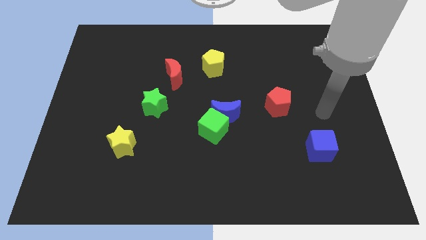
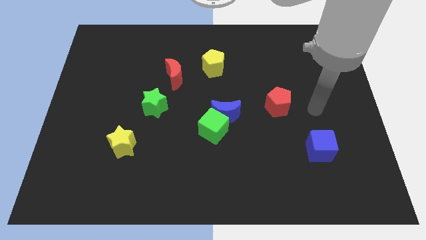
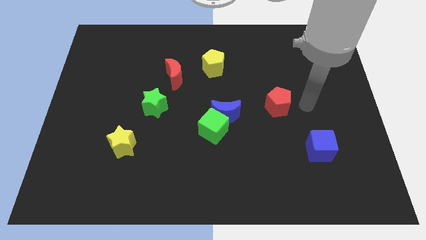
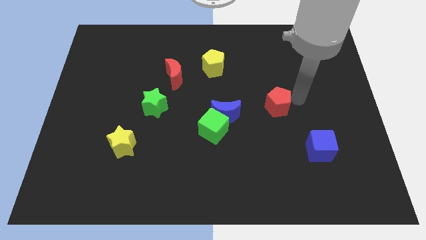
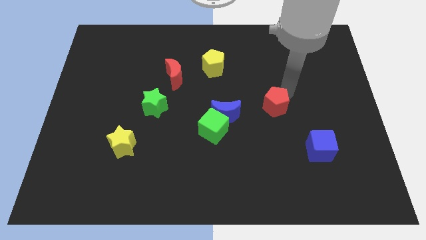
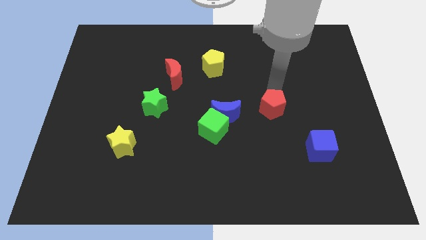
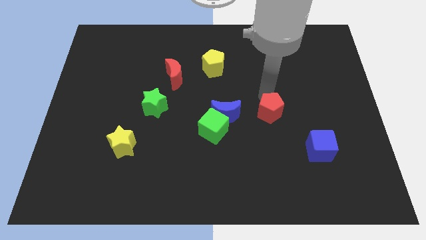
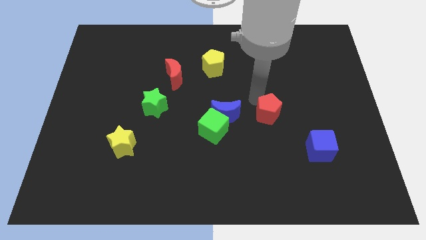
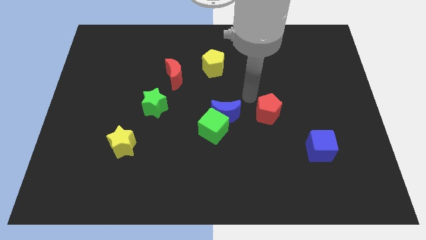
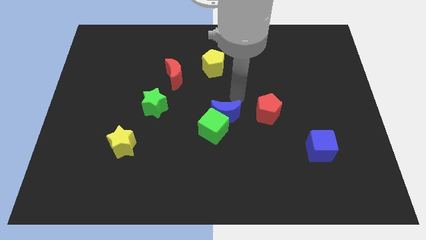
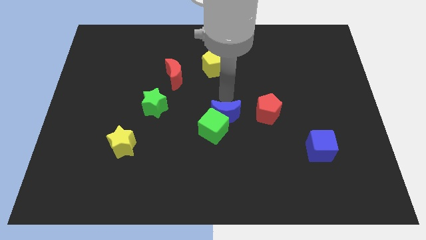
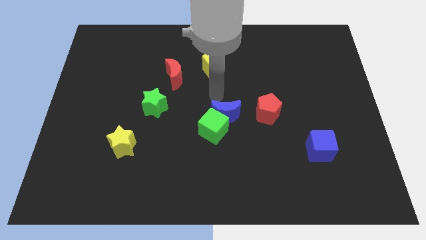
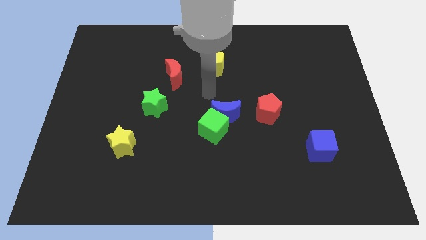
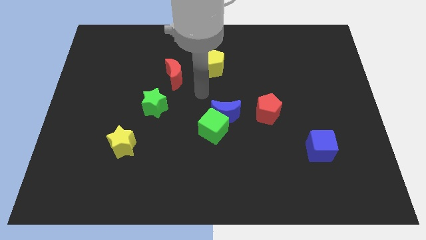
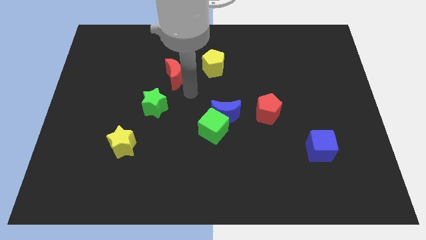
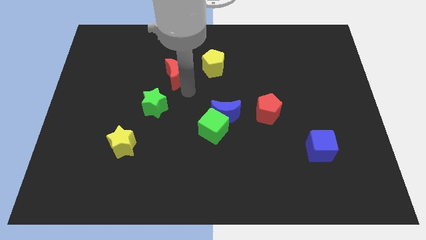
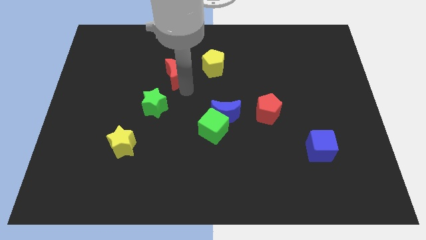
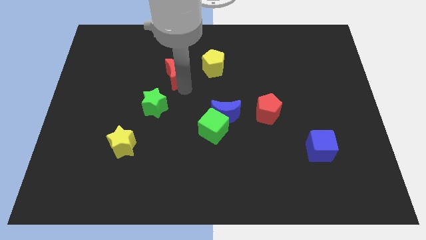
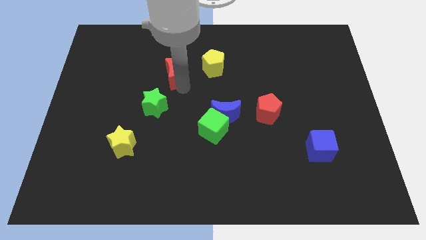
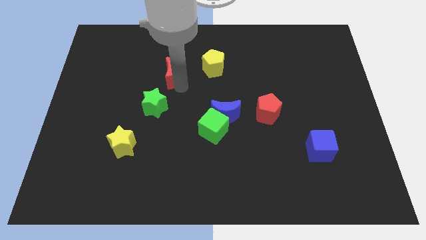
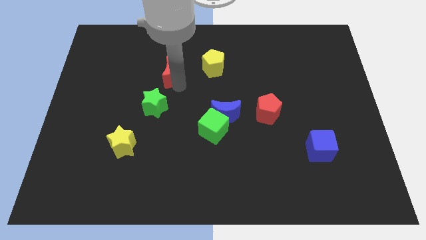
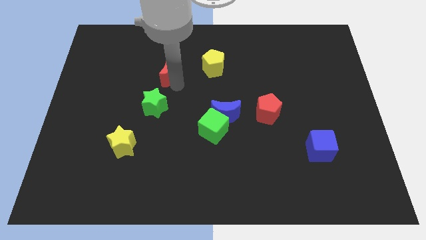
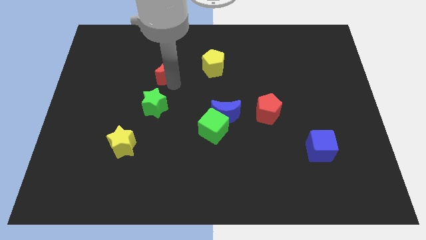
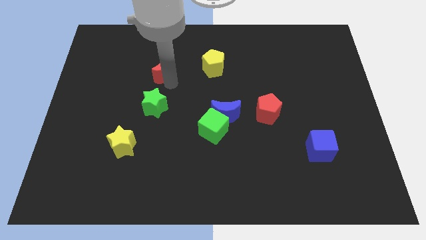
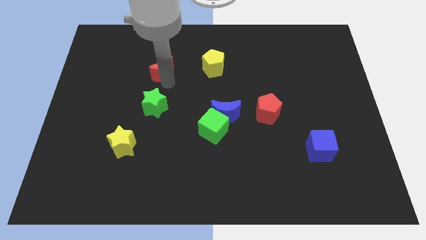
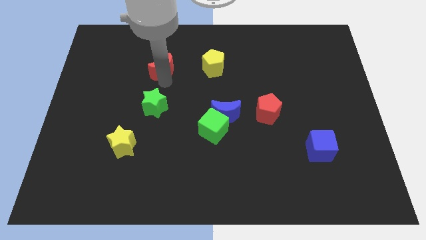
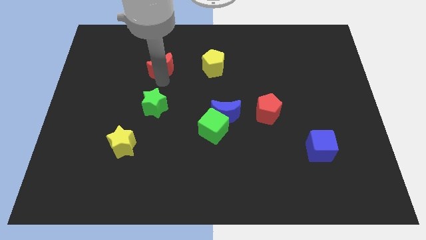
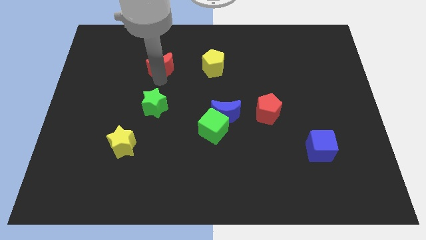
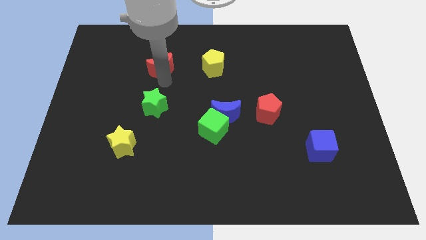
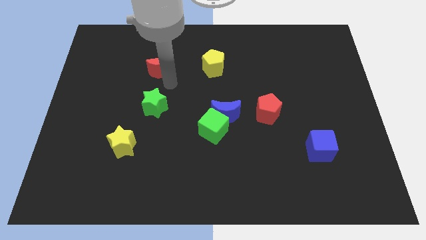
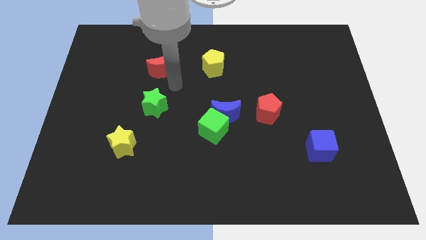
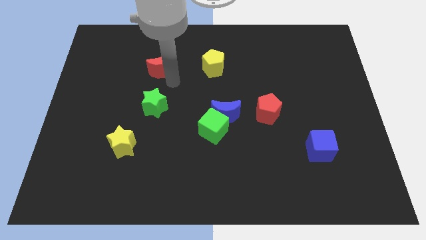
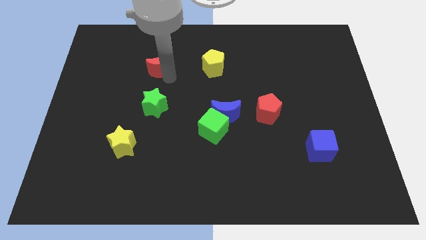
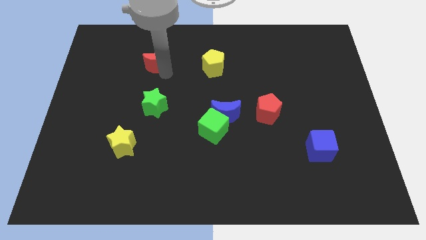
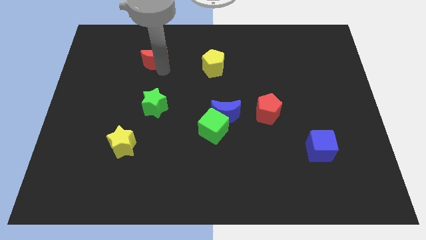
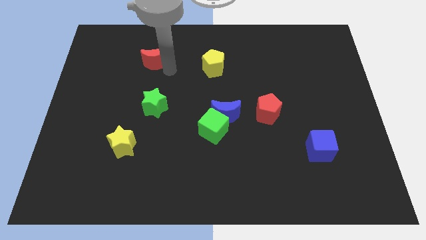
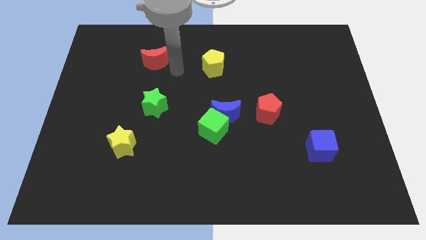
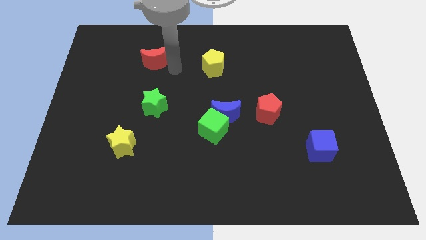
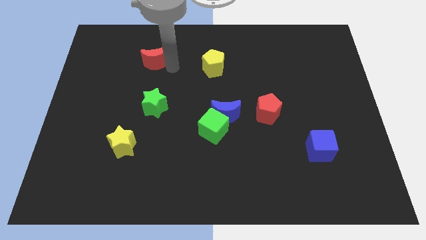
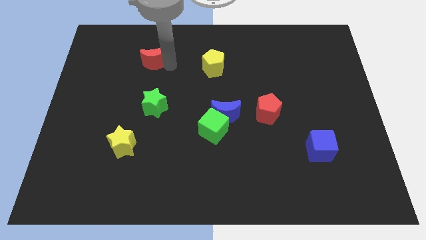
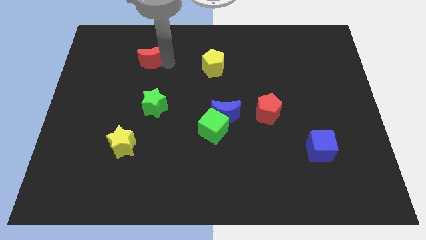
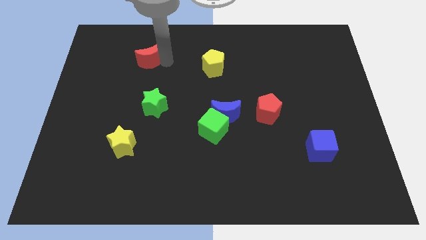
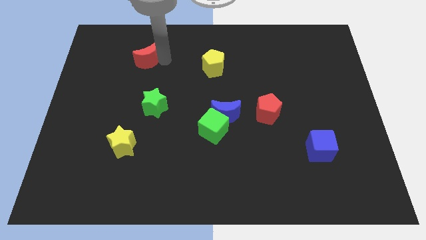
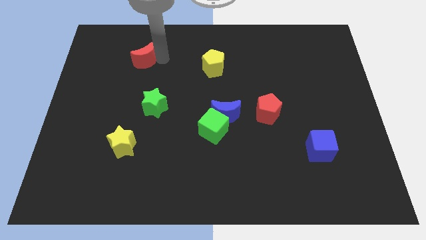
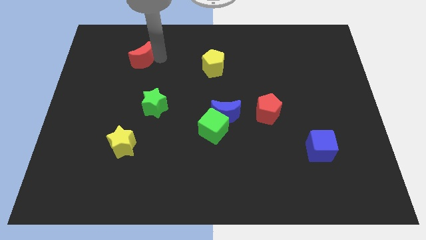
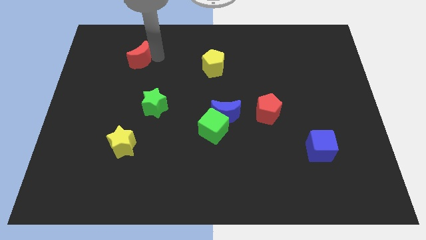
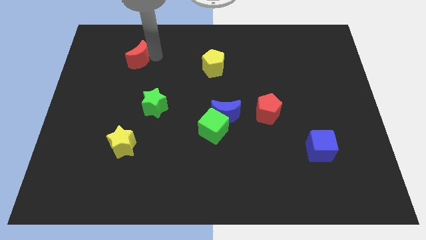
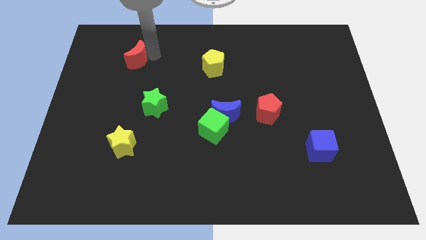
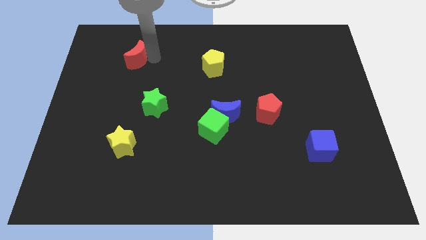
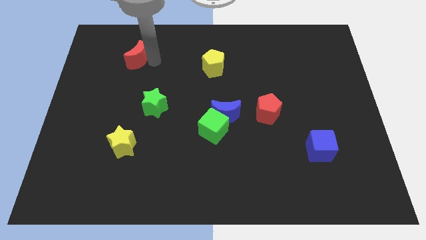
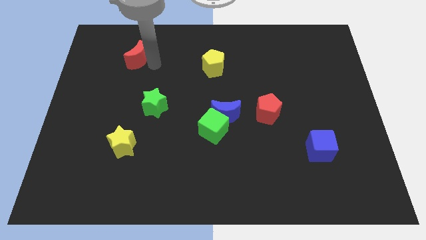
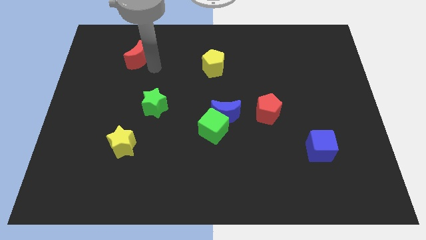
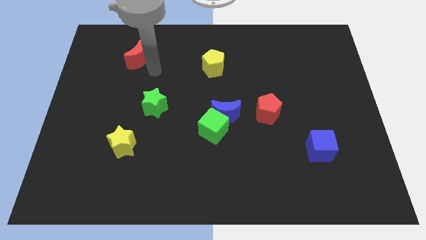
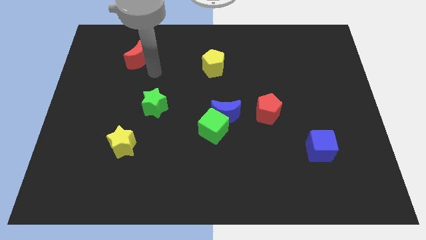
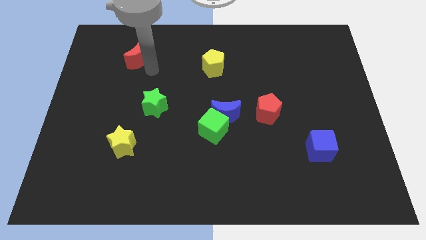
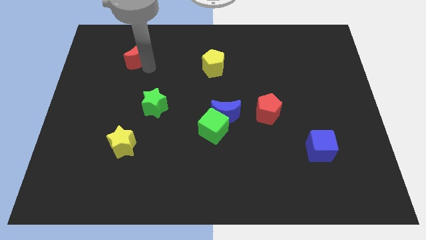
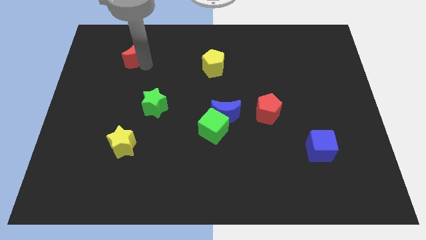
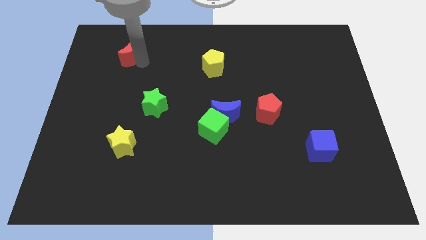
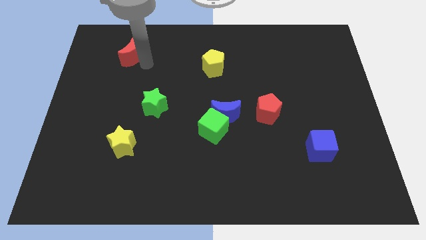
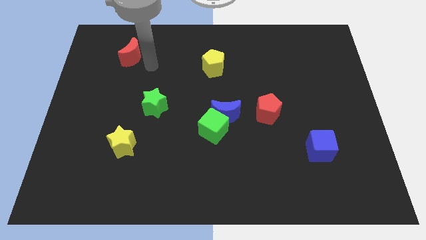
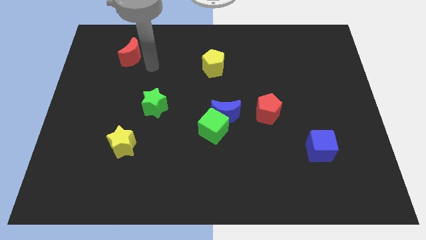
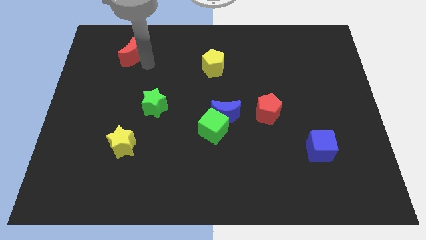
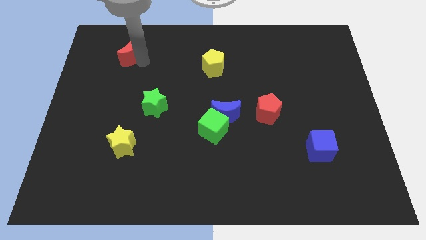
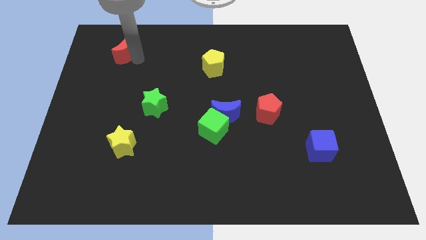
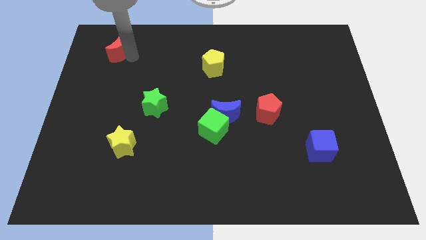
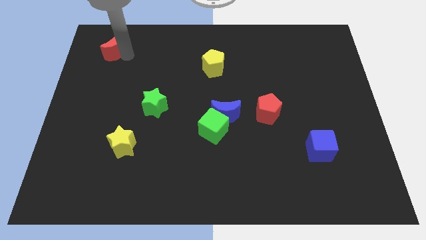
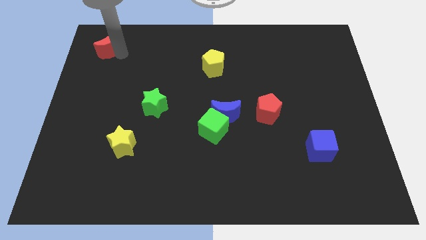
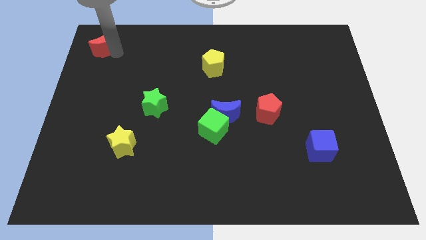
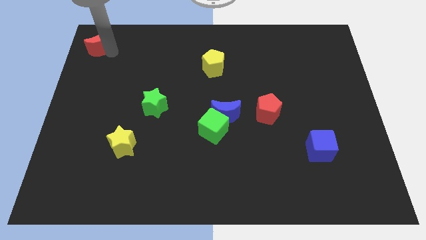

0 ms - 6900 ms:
push the red moon to the upper left corner
